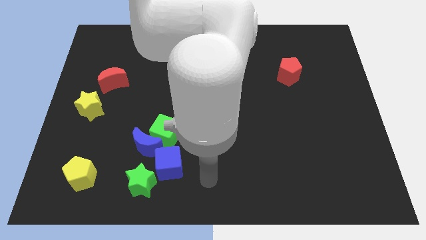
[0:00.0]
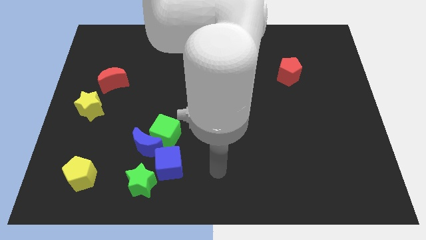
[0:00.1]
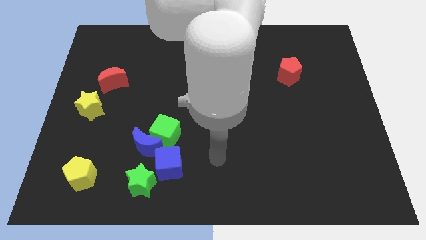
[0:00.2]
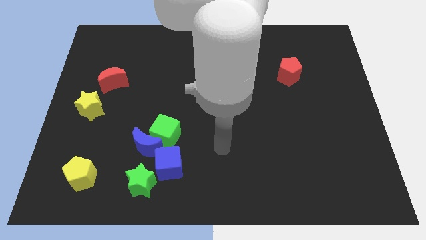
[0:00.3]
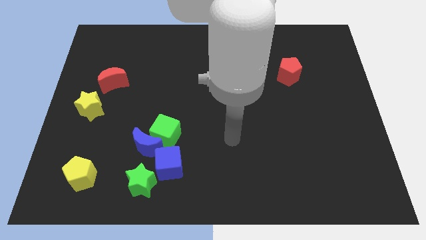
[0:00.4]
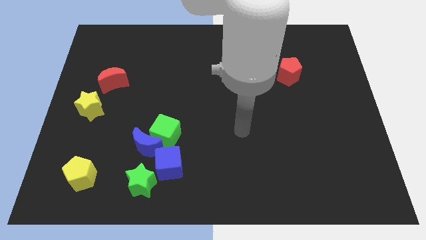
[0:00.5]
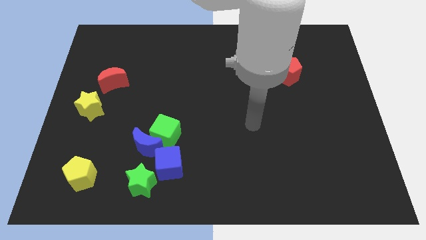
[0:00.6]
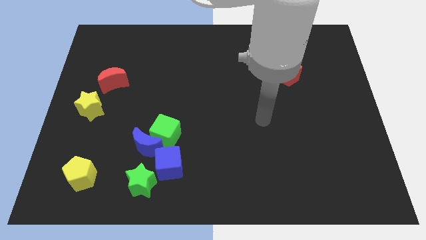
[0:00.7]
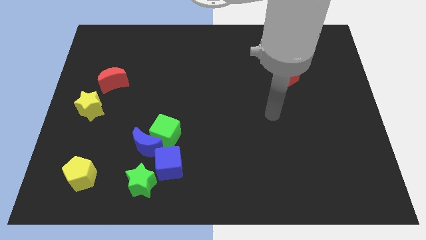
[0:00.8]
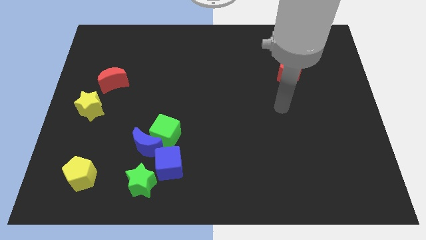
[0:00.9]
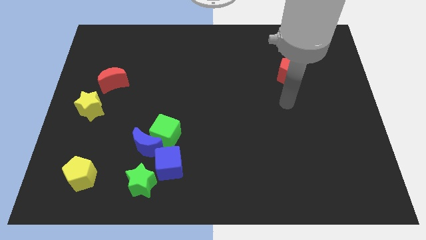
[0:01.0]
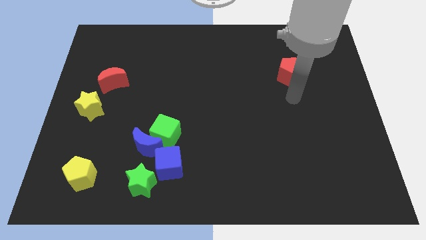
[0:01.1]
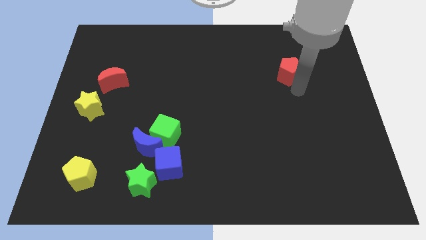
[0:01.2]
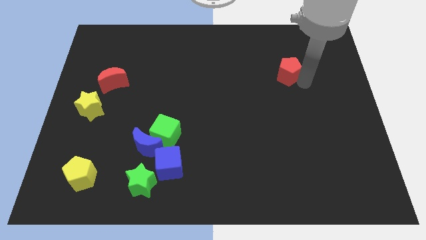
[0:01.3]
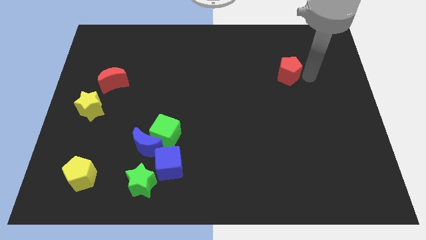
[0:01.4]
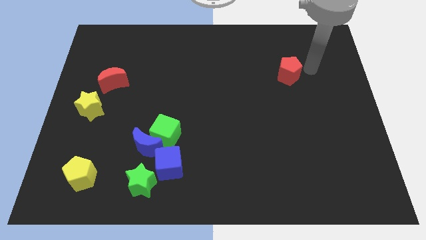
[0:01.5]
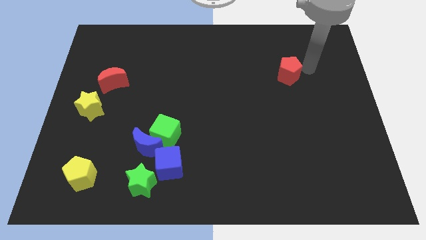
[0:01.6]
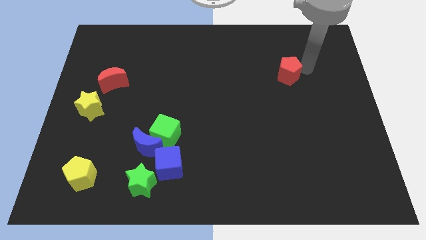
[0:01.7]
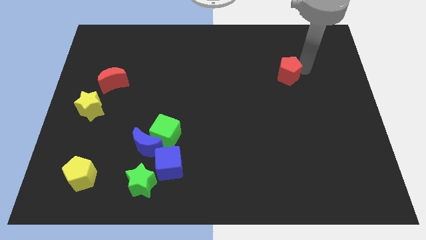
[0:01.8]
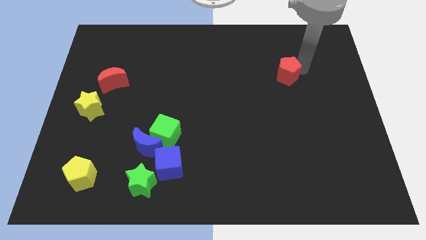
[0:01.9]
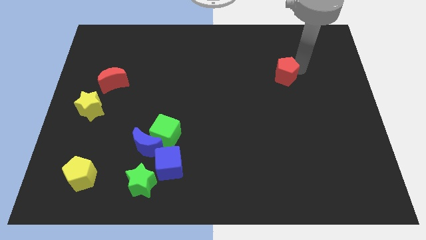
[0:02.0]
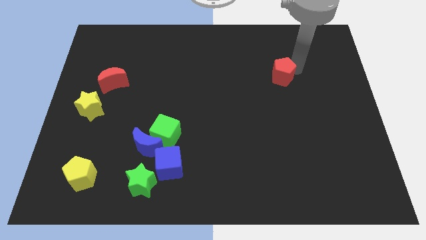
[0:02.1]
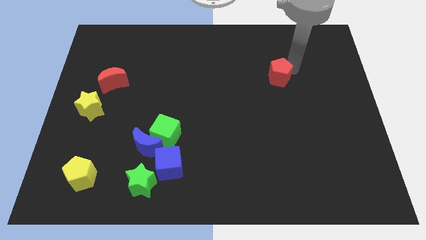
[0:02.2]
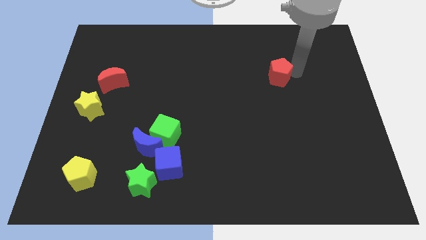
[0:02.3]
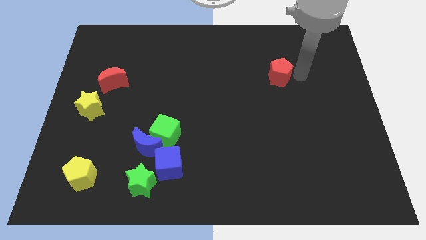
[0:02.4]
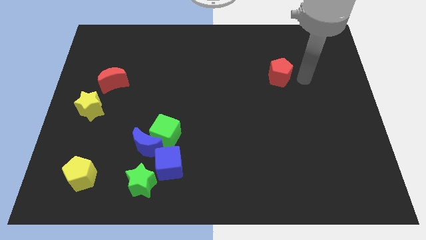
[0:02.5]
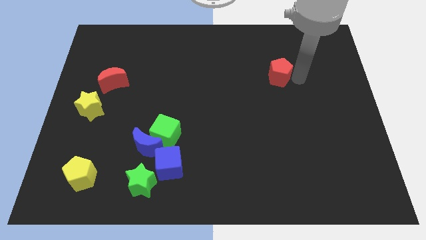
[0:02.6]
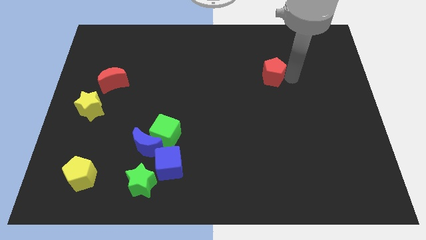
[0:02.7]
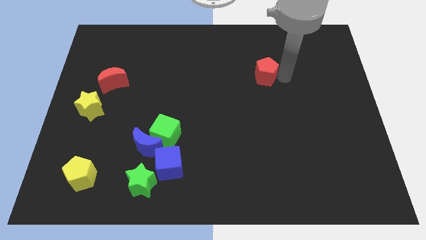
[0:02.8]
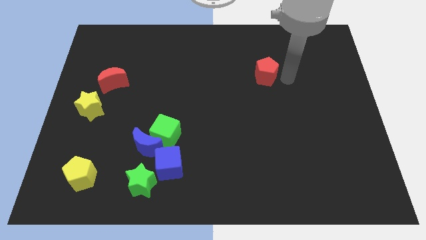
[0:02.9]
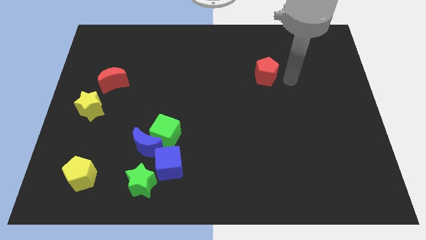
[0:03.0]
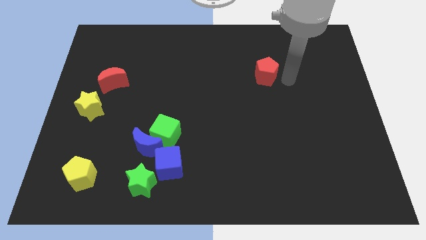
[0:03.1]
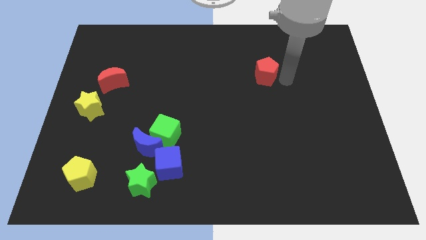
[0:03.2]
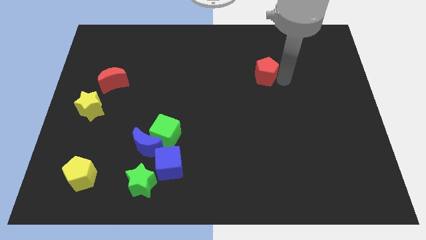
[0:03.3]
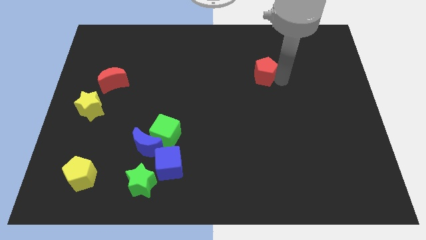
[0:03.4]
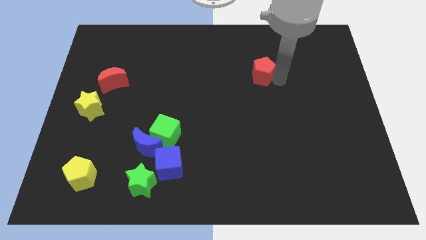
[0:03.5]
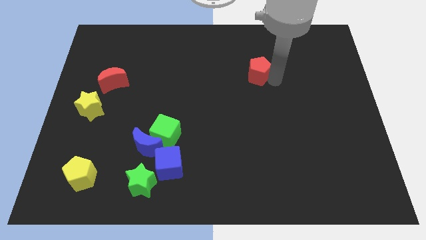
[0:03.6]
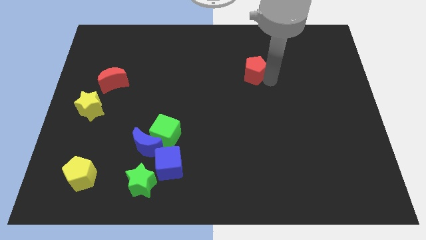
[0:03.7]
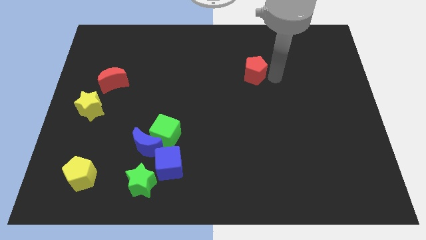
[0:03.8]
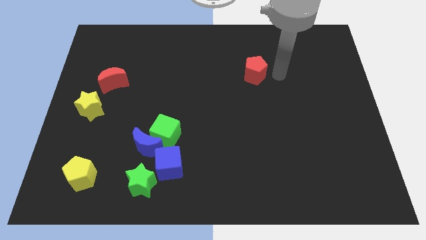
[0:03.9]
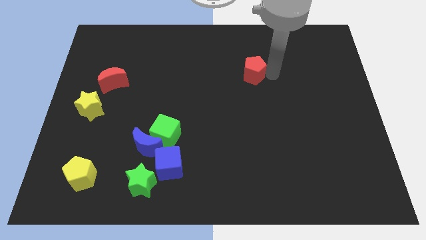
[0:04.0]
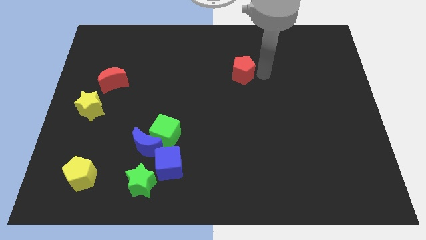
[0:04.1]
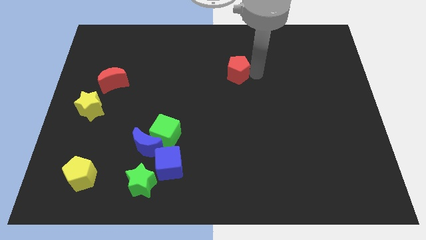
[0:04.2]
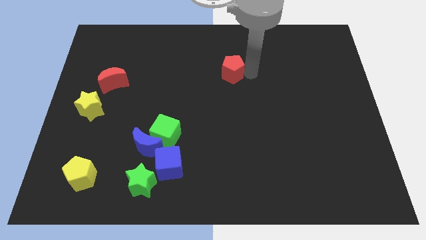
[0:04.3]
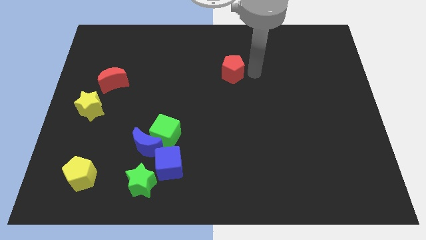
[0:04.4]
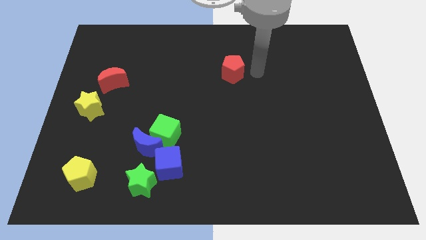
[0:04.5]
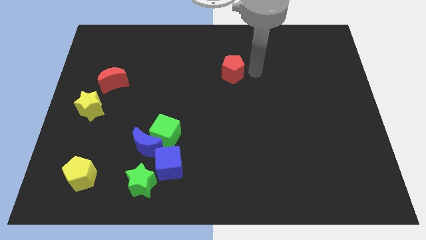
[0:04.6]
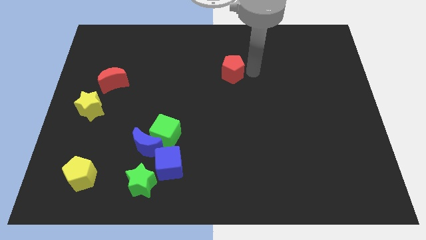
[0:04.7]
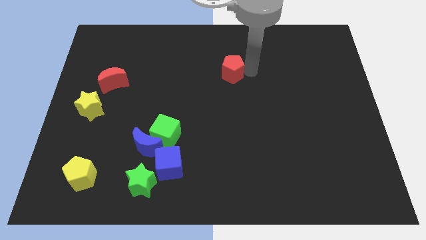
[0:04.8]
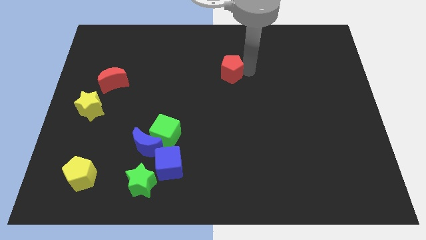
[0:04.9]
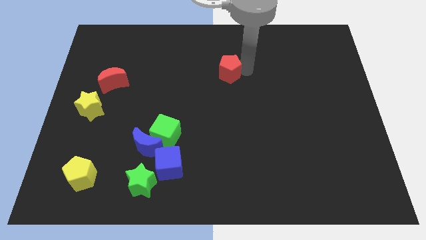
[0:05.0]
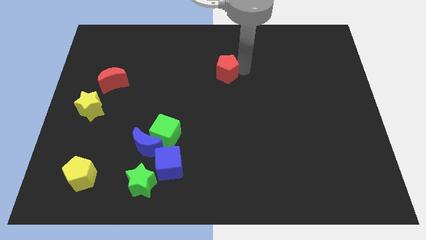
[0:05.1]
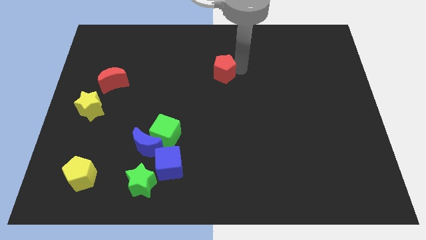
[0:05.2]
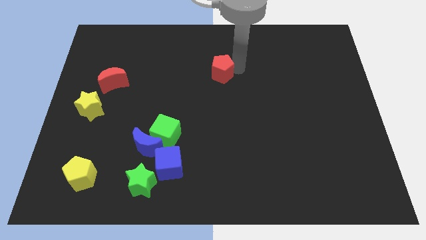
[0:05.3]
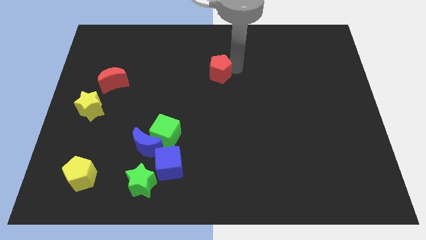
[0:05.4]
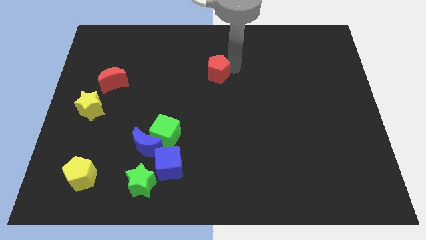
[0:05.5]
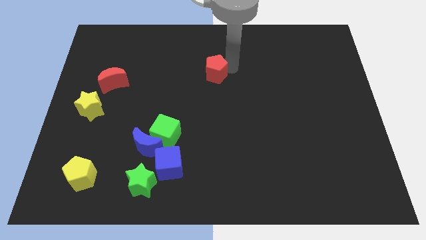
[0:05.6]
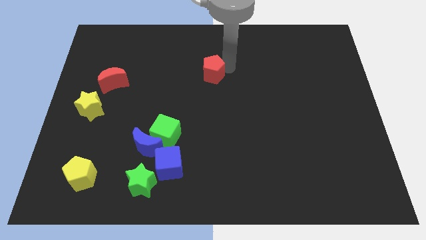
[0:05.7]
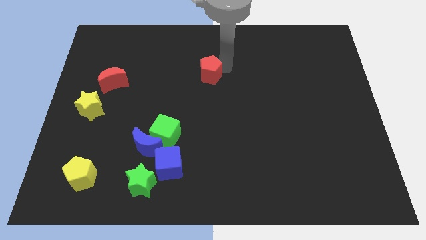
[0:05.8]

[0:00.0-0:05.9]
push the red pentagon to the left

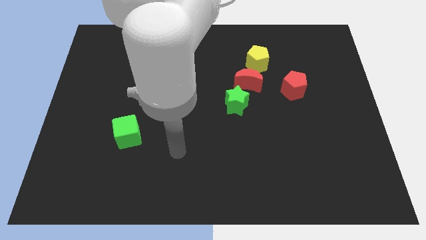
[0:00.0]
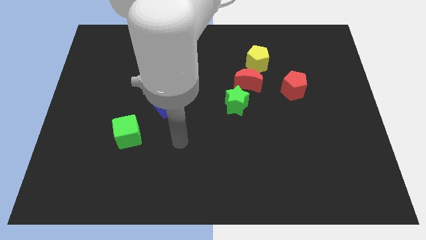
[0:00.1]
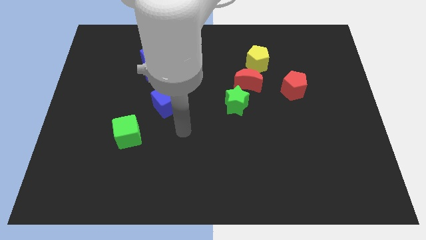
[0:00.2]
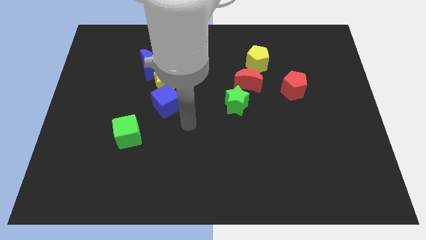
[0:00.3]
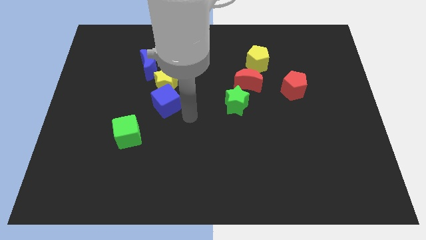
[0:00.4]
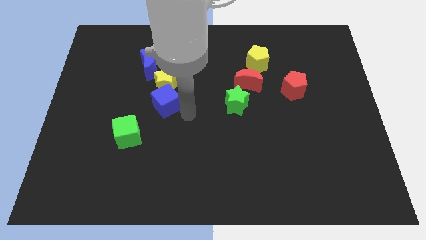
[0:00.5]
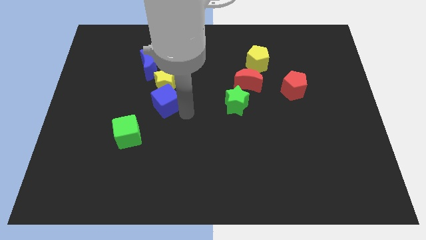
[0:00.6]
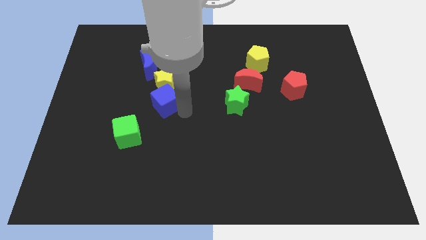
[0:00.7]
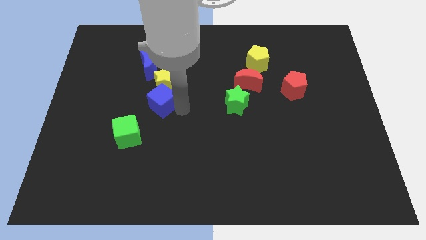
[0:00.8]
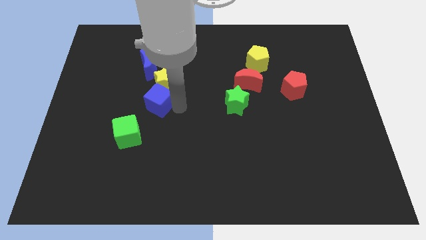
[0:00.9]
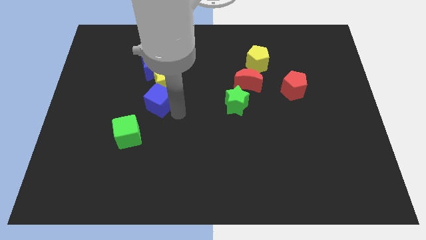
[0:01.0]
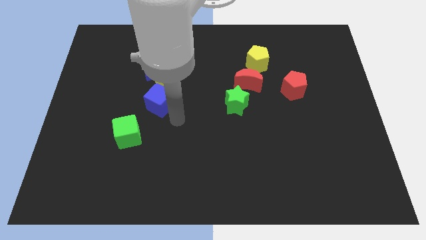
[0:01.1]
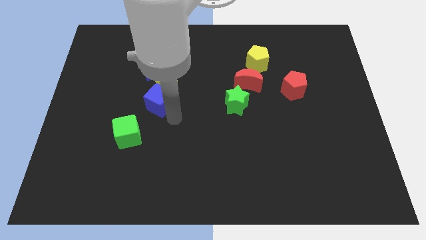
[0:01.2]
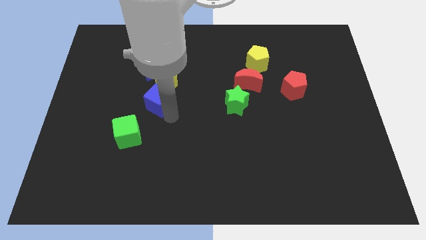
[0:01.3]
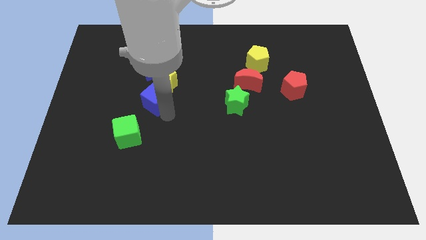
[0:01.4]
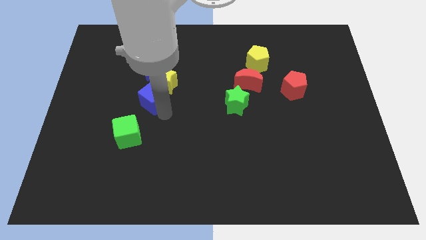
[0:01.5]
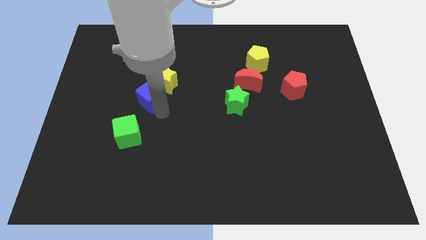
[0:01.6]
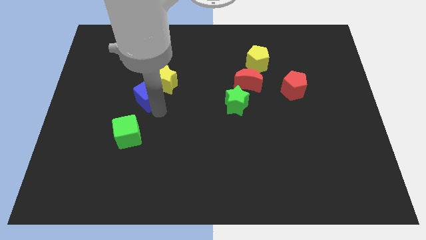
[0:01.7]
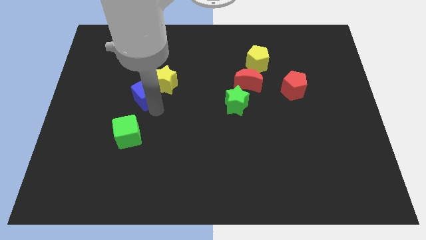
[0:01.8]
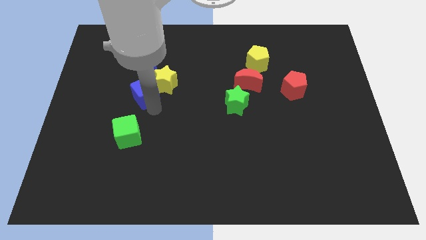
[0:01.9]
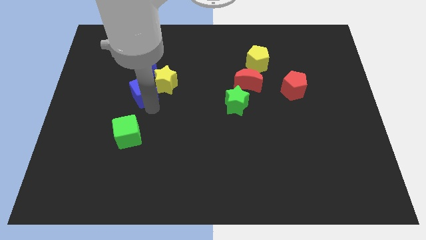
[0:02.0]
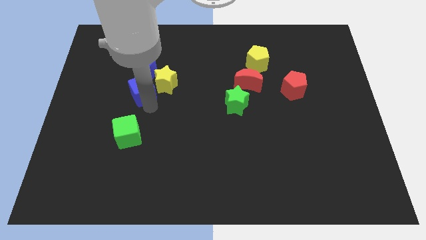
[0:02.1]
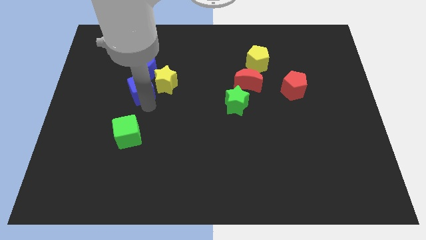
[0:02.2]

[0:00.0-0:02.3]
slightly push the blue cube up and to the left
